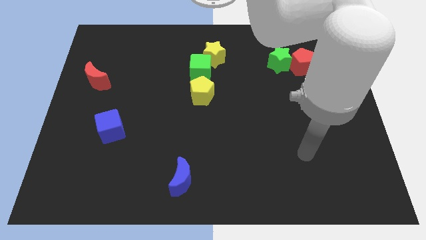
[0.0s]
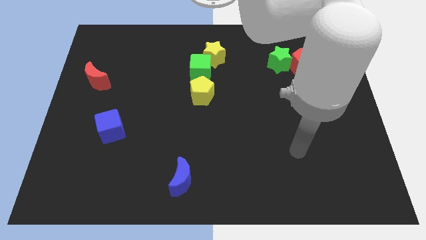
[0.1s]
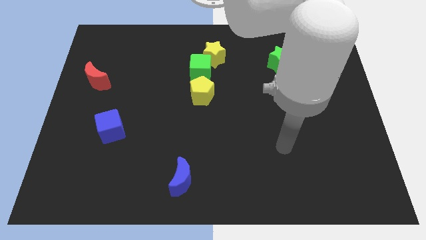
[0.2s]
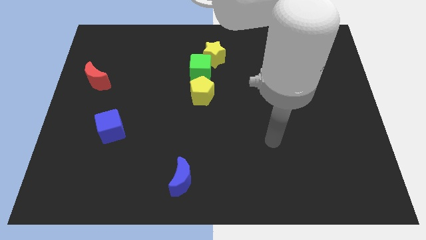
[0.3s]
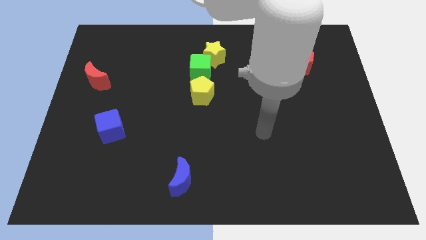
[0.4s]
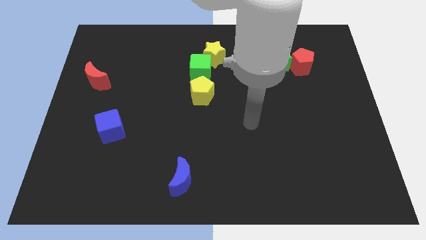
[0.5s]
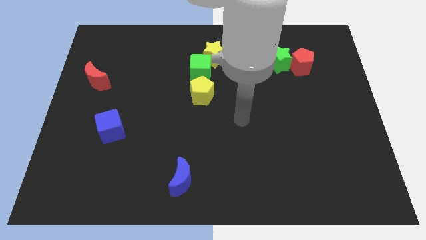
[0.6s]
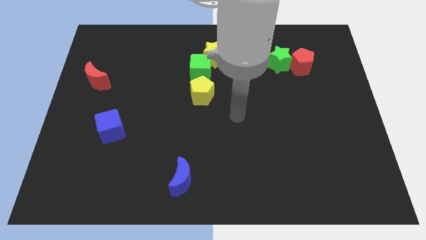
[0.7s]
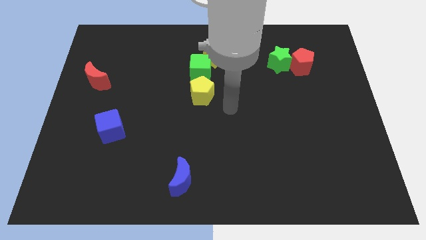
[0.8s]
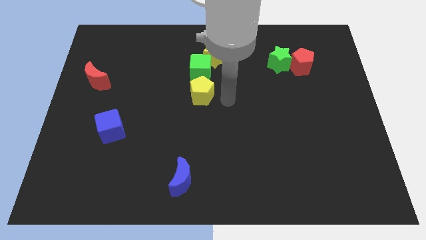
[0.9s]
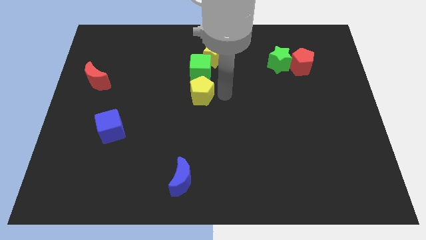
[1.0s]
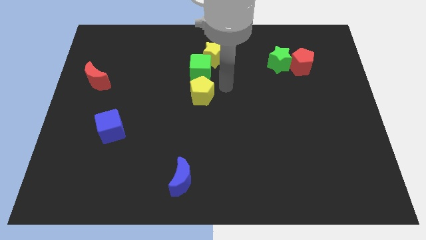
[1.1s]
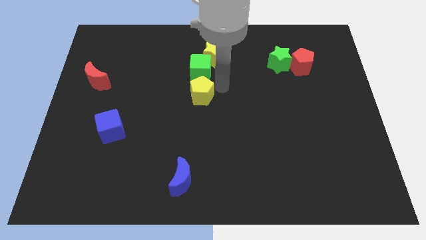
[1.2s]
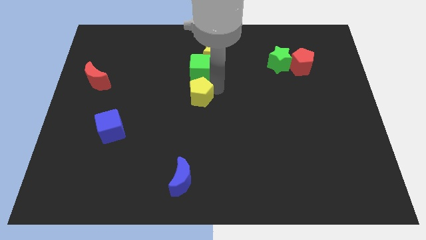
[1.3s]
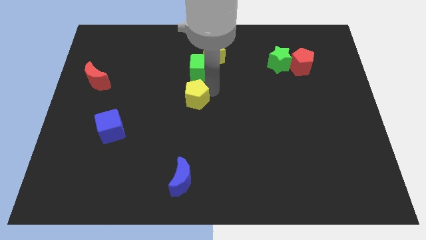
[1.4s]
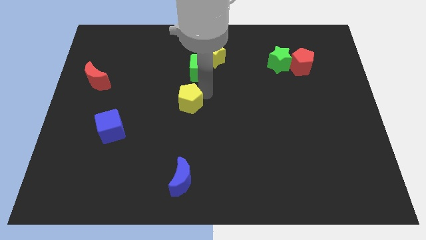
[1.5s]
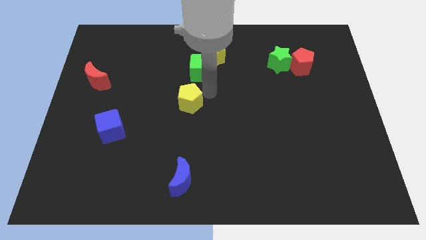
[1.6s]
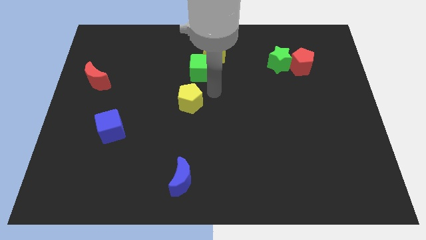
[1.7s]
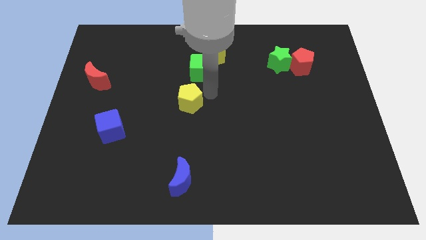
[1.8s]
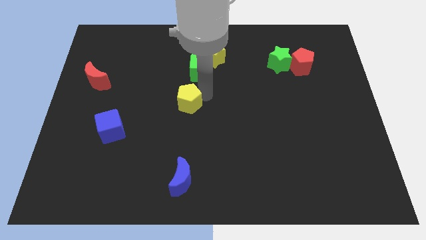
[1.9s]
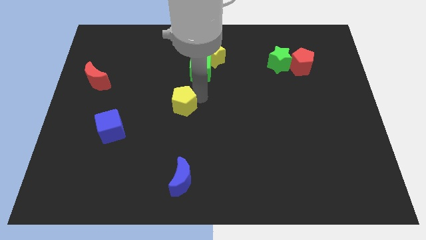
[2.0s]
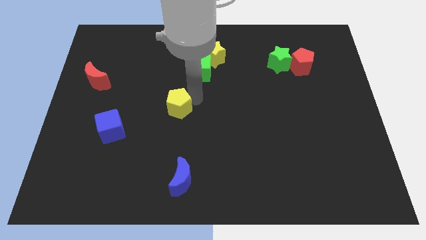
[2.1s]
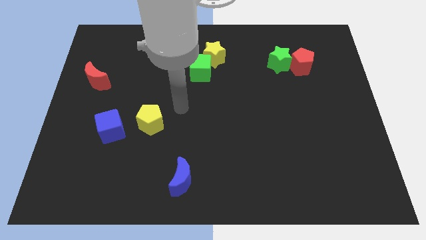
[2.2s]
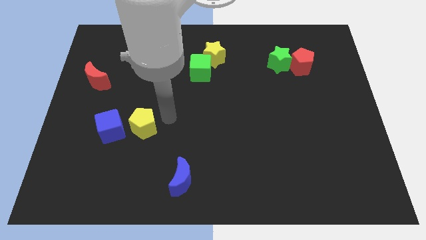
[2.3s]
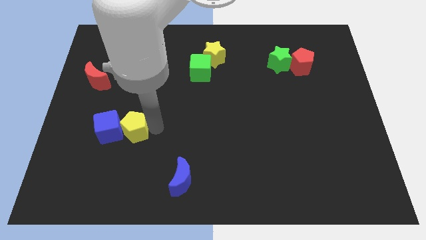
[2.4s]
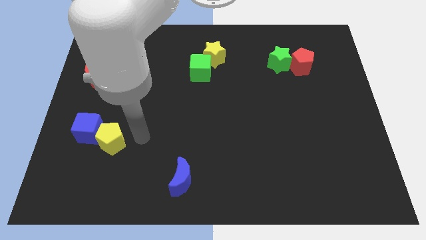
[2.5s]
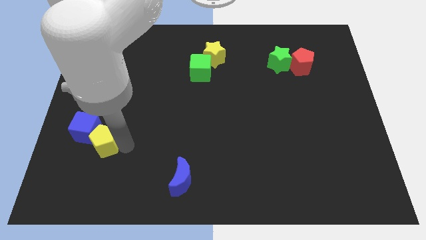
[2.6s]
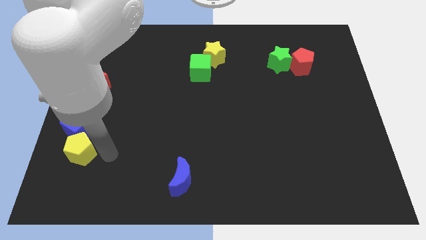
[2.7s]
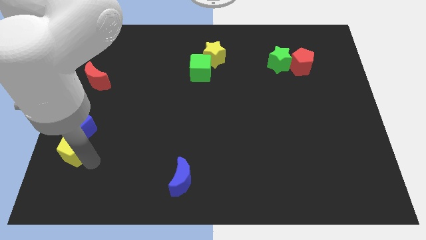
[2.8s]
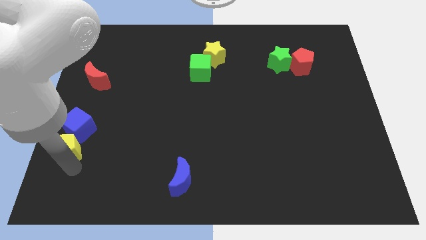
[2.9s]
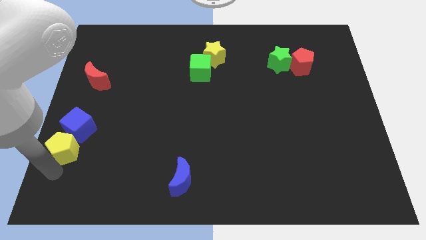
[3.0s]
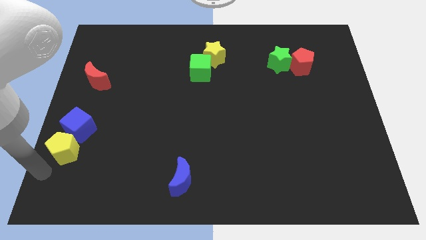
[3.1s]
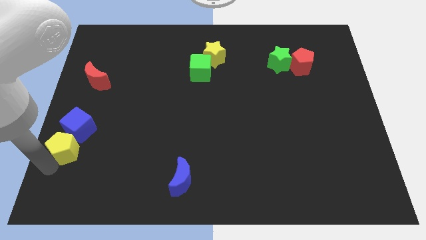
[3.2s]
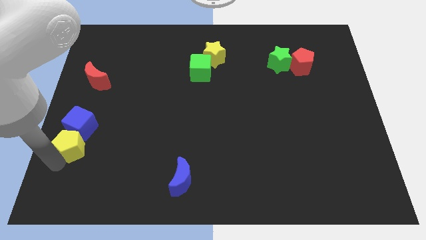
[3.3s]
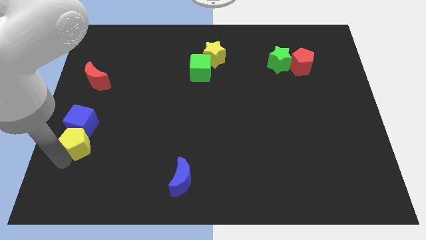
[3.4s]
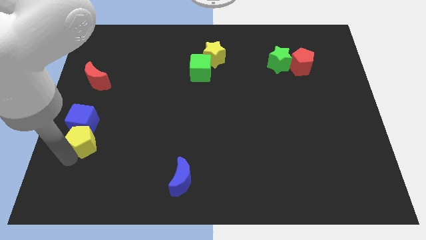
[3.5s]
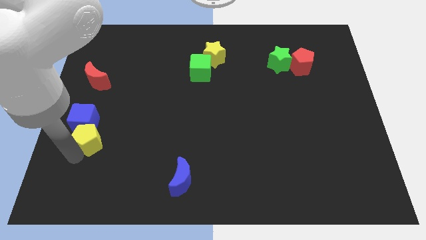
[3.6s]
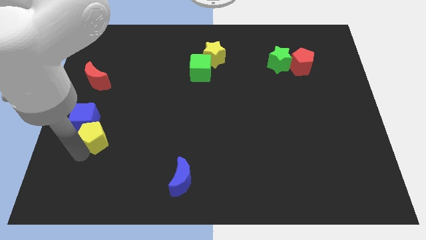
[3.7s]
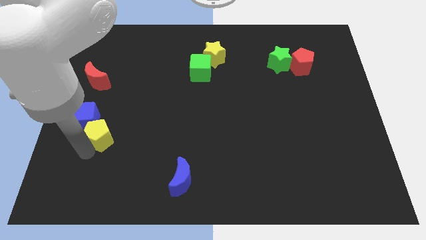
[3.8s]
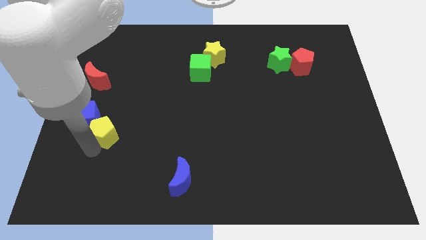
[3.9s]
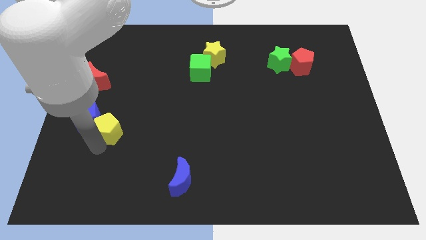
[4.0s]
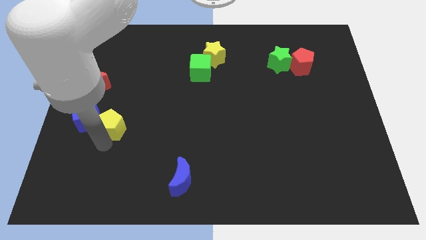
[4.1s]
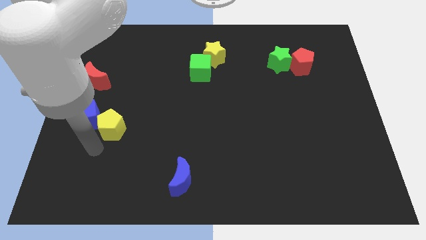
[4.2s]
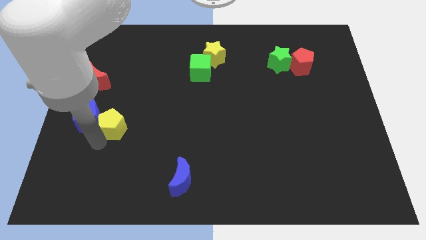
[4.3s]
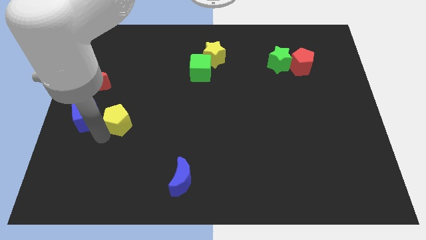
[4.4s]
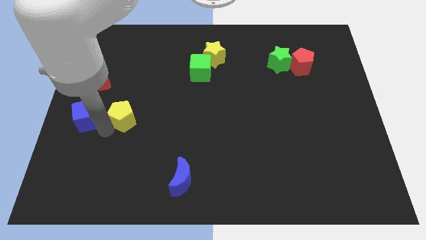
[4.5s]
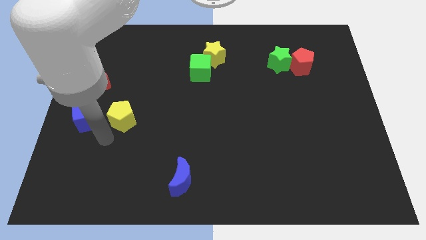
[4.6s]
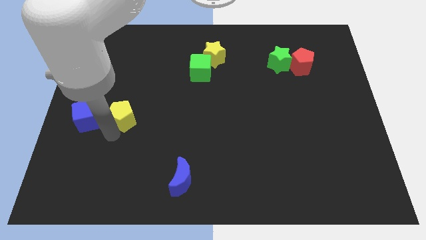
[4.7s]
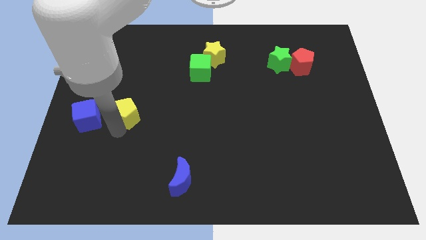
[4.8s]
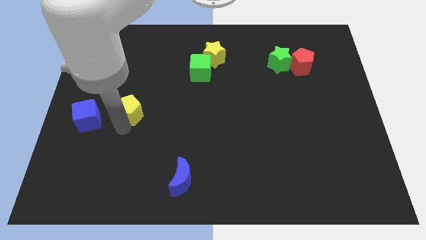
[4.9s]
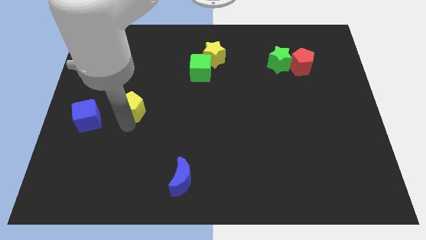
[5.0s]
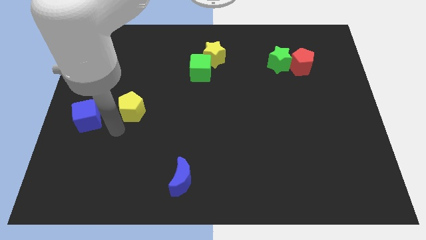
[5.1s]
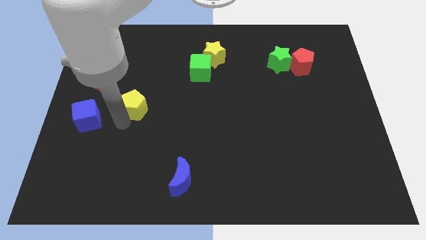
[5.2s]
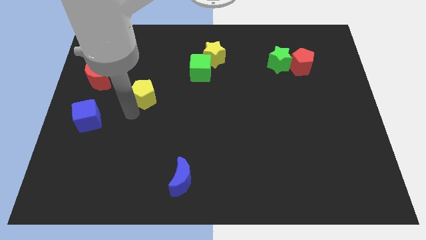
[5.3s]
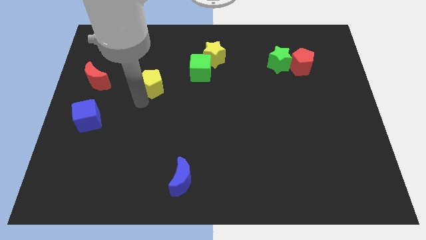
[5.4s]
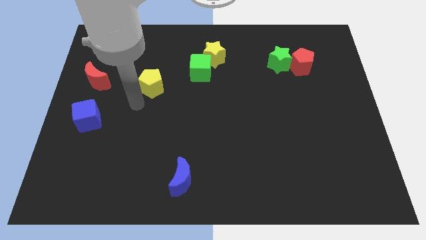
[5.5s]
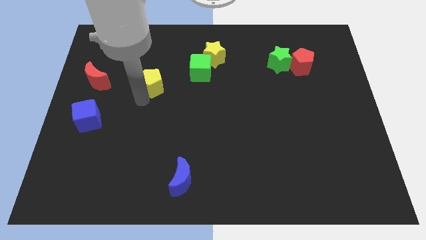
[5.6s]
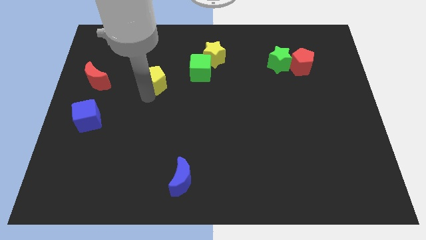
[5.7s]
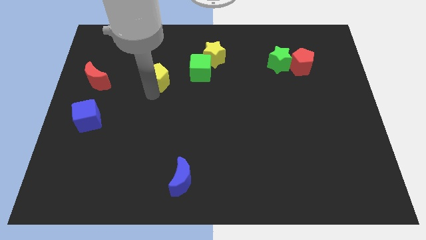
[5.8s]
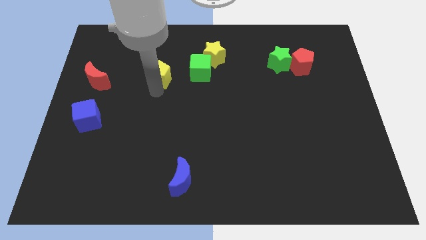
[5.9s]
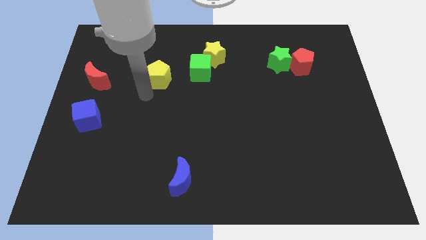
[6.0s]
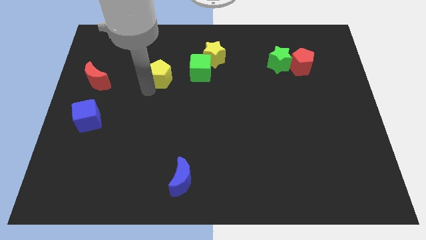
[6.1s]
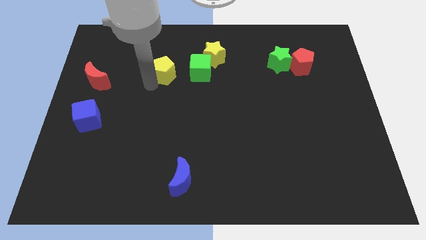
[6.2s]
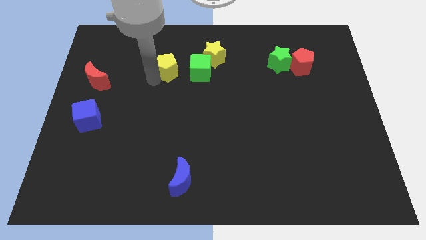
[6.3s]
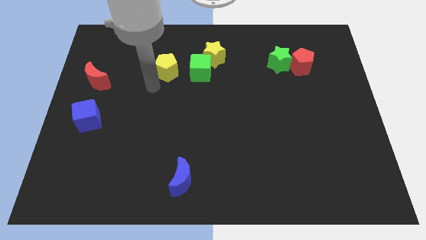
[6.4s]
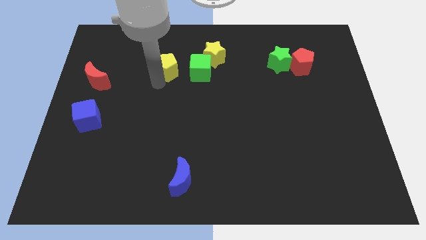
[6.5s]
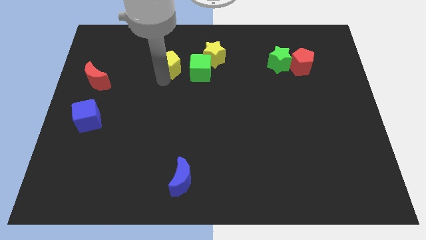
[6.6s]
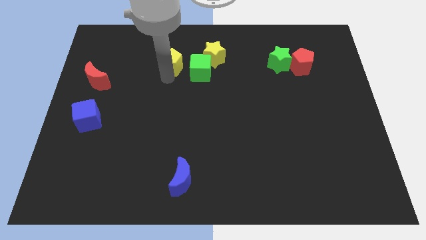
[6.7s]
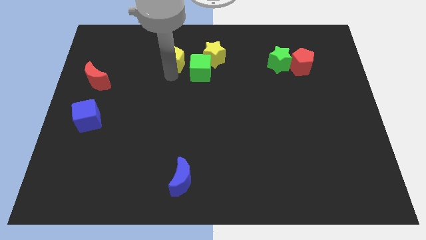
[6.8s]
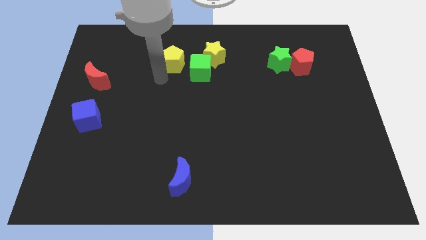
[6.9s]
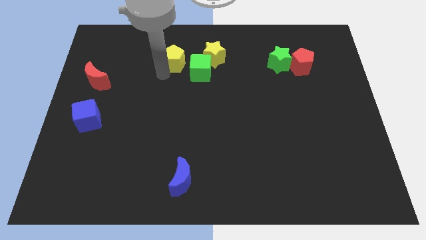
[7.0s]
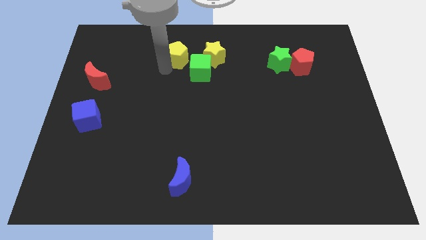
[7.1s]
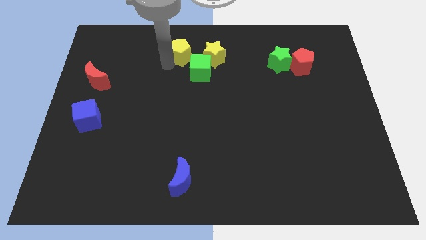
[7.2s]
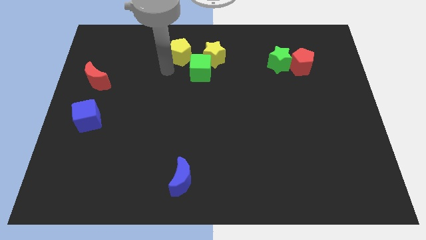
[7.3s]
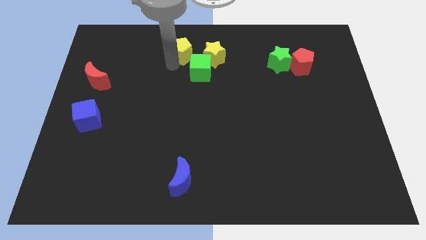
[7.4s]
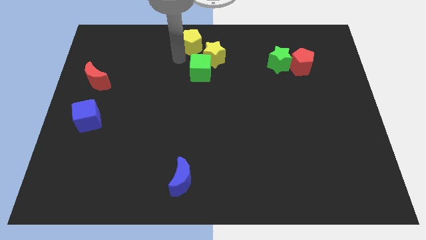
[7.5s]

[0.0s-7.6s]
move the yellow pentagon to the top side
